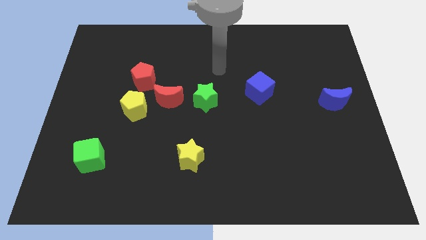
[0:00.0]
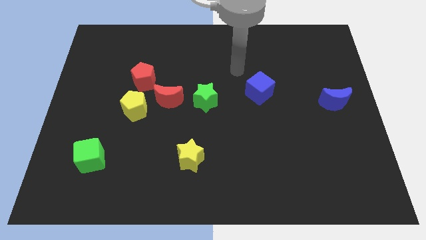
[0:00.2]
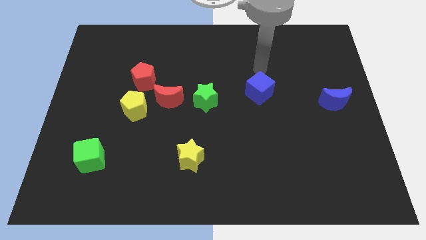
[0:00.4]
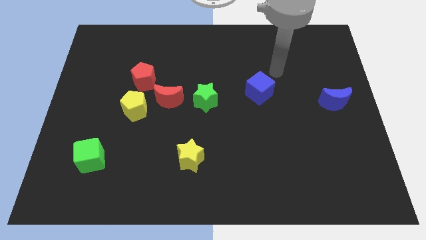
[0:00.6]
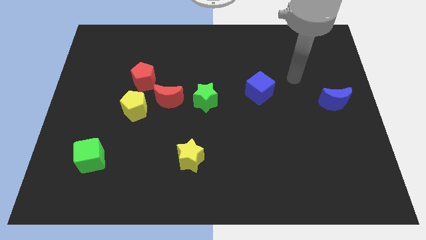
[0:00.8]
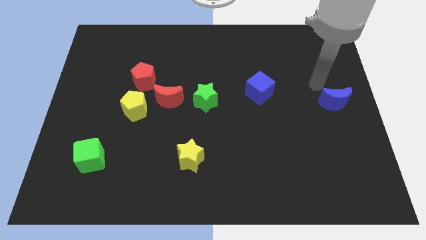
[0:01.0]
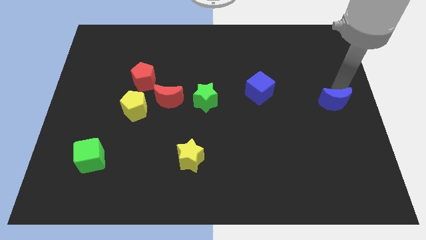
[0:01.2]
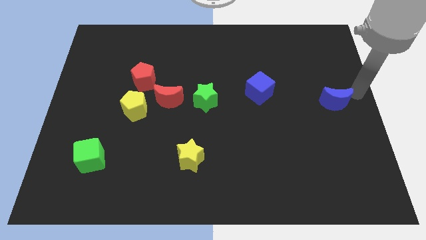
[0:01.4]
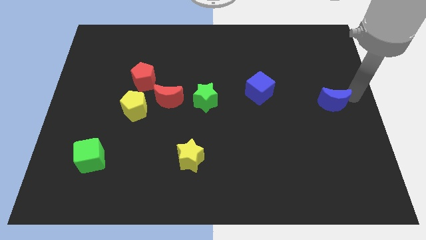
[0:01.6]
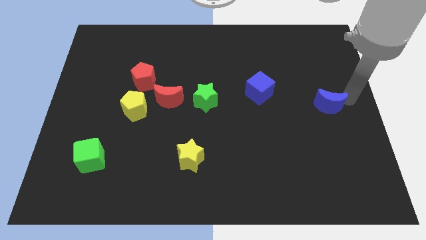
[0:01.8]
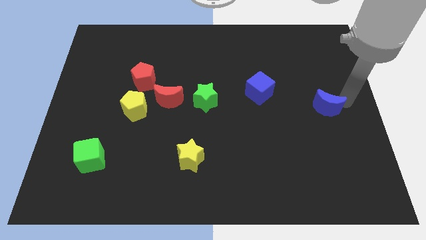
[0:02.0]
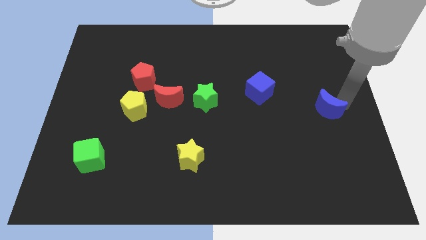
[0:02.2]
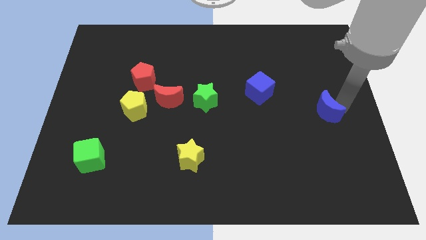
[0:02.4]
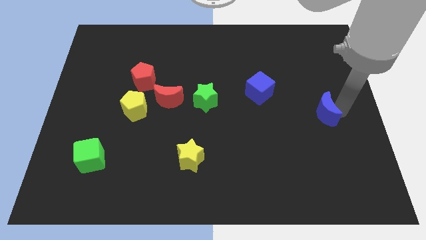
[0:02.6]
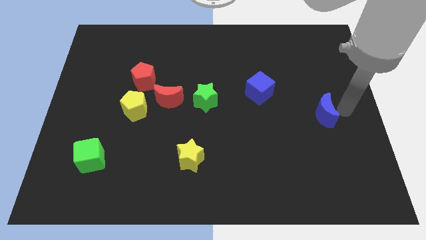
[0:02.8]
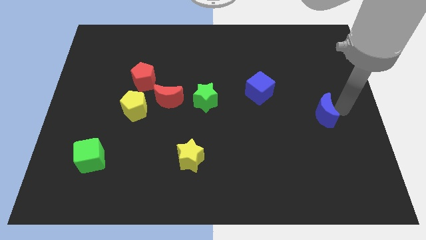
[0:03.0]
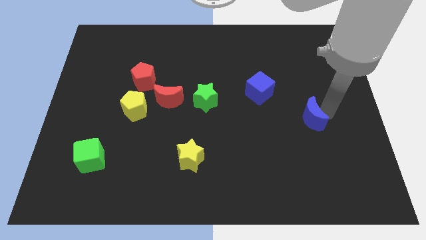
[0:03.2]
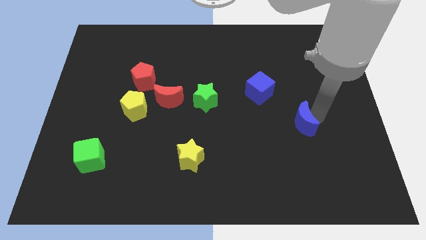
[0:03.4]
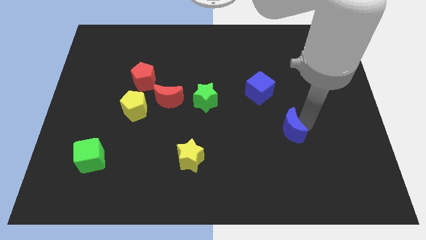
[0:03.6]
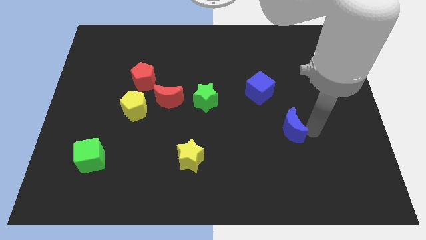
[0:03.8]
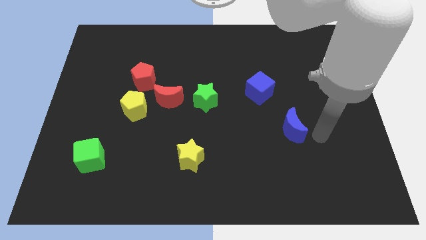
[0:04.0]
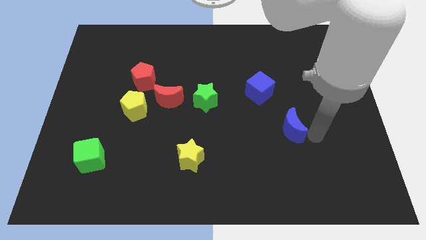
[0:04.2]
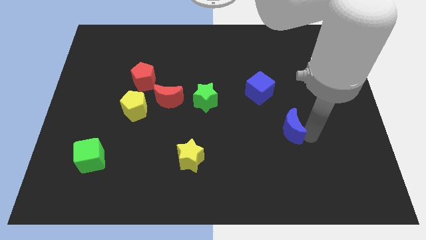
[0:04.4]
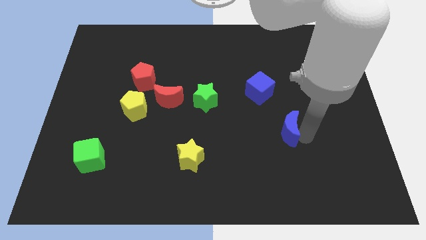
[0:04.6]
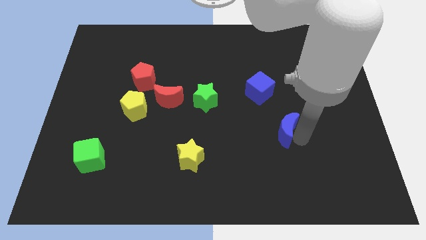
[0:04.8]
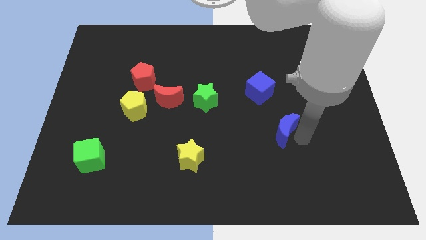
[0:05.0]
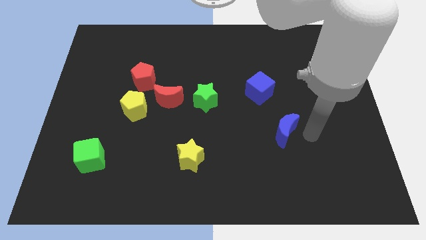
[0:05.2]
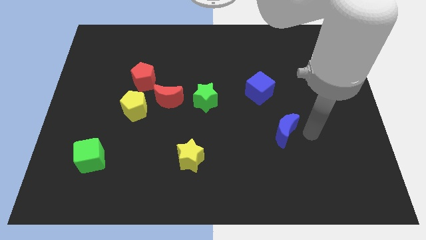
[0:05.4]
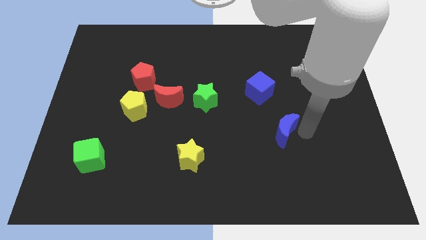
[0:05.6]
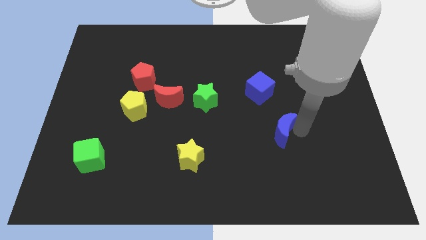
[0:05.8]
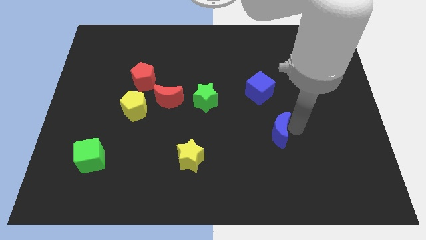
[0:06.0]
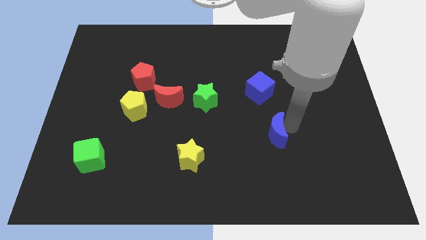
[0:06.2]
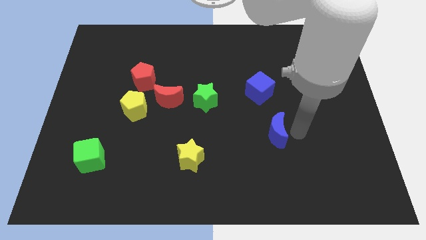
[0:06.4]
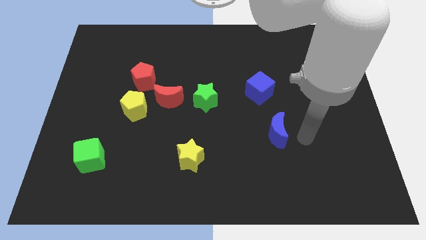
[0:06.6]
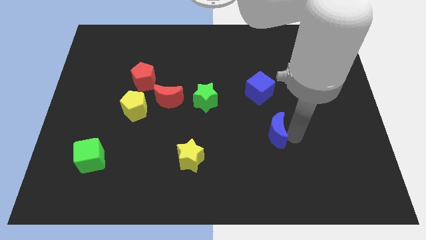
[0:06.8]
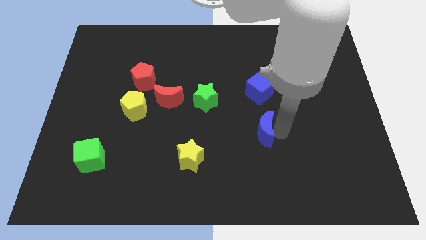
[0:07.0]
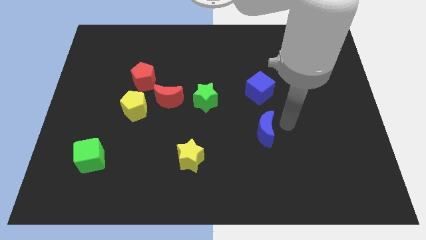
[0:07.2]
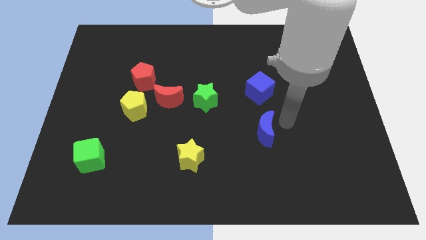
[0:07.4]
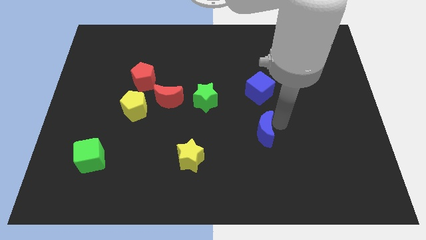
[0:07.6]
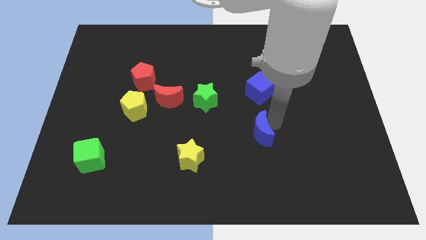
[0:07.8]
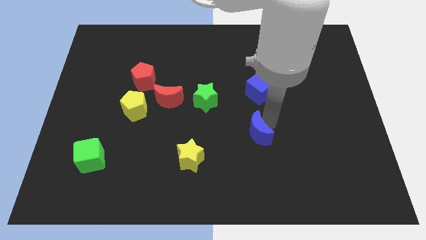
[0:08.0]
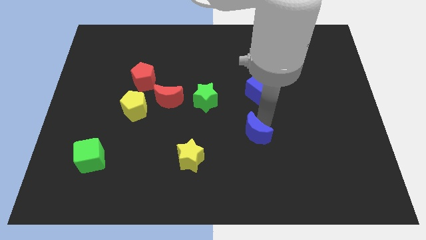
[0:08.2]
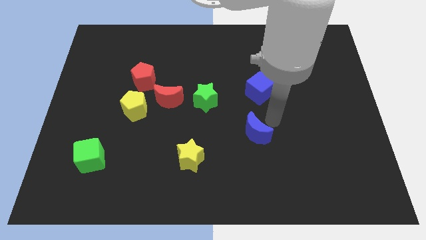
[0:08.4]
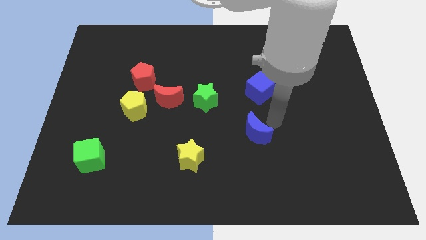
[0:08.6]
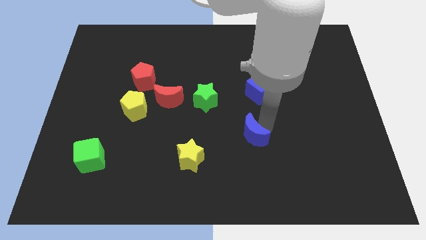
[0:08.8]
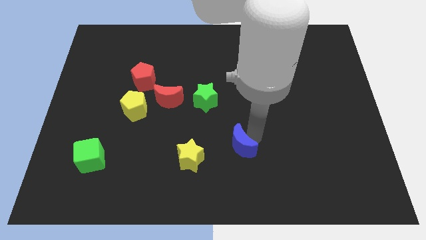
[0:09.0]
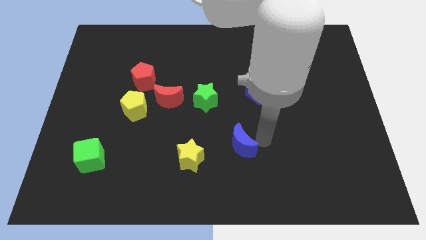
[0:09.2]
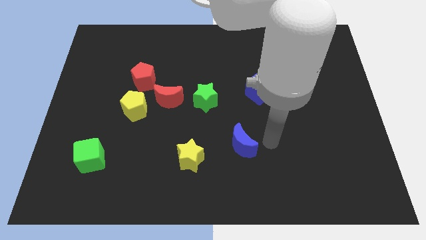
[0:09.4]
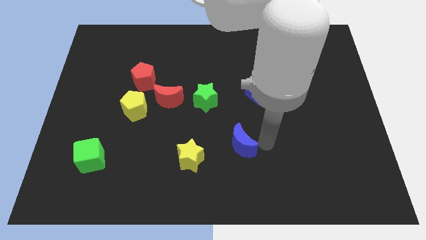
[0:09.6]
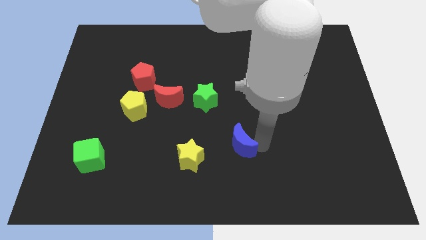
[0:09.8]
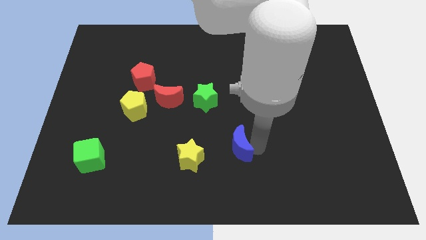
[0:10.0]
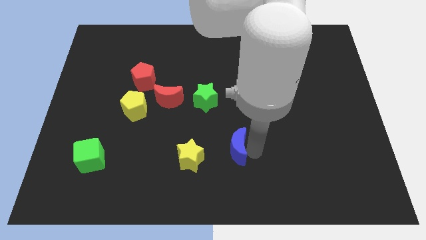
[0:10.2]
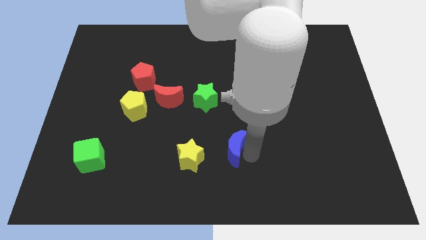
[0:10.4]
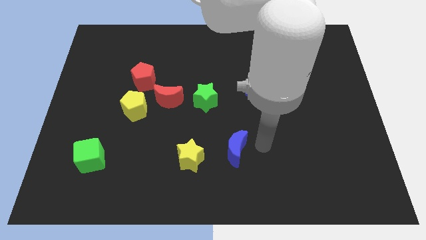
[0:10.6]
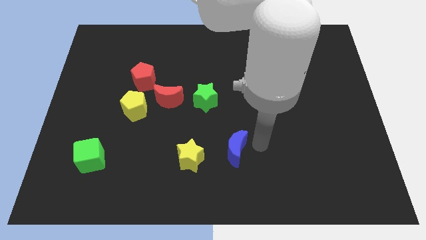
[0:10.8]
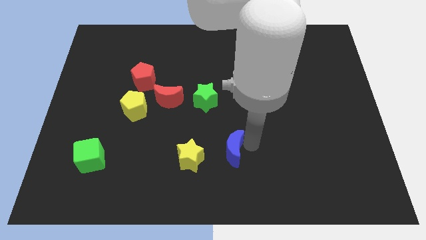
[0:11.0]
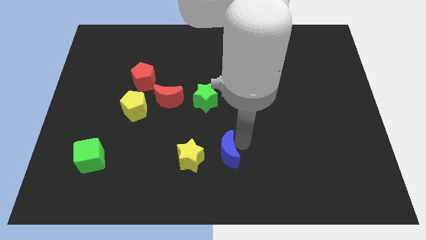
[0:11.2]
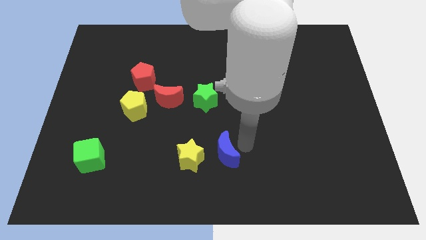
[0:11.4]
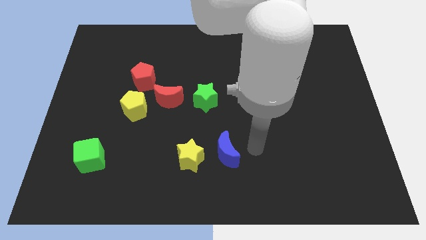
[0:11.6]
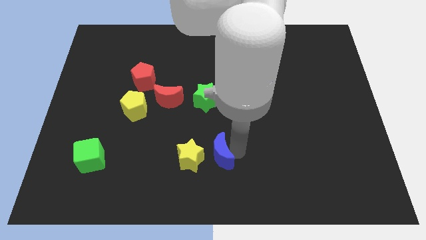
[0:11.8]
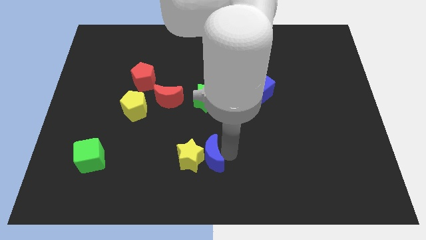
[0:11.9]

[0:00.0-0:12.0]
slide the blue moon close to the yellow star

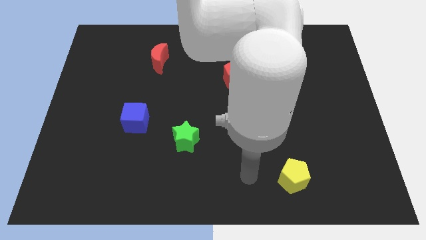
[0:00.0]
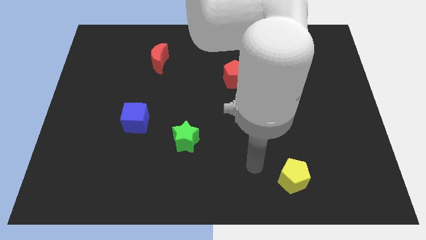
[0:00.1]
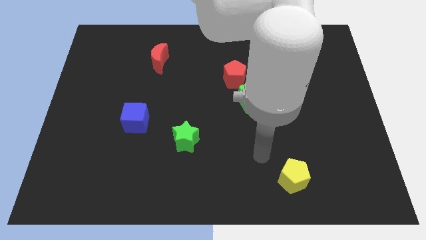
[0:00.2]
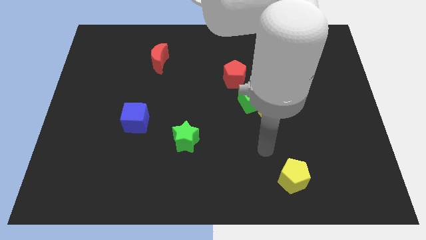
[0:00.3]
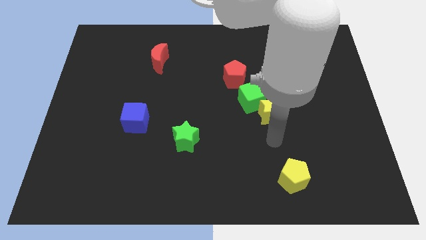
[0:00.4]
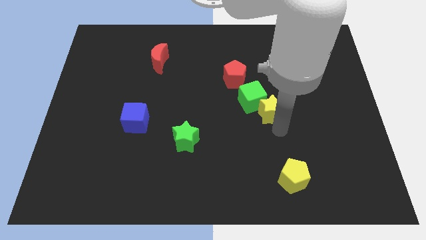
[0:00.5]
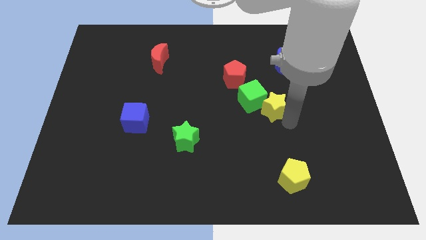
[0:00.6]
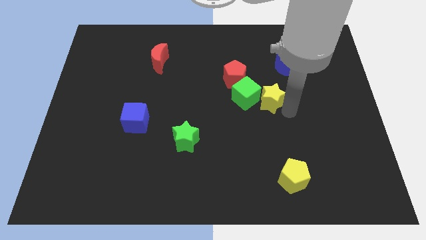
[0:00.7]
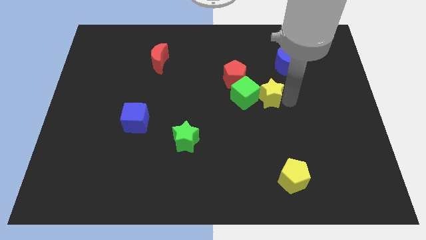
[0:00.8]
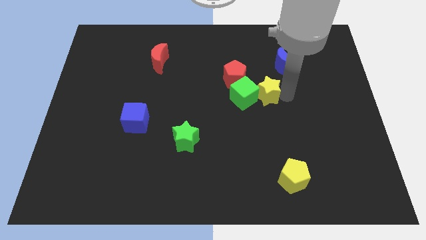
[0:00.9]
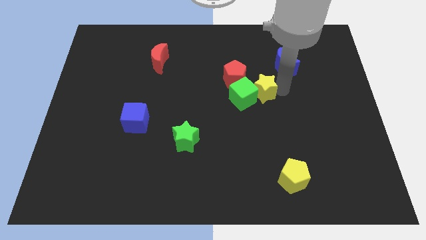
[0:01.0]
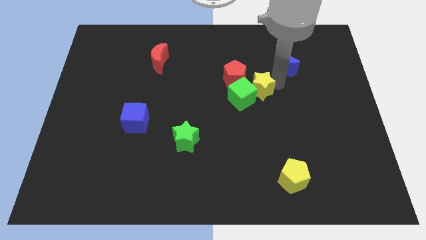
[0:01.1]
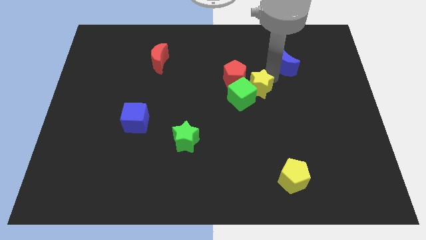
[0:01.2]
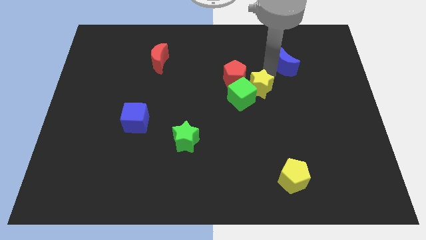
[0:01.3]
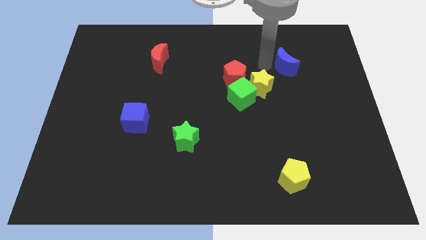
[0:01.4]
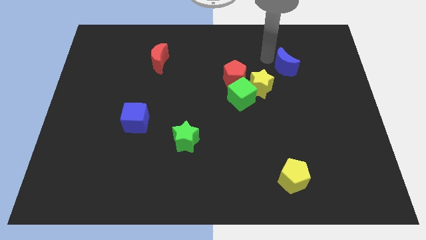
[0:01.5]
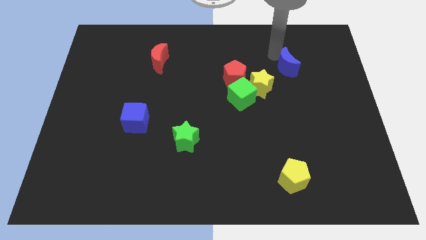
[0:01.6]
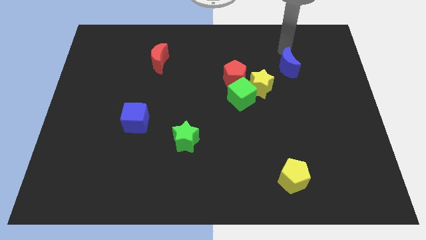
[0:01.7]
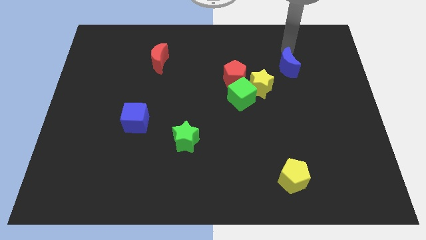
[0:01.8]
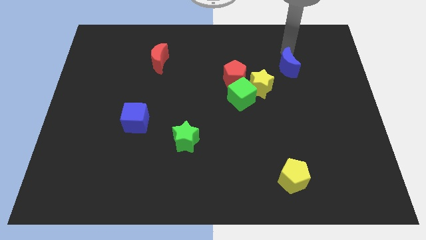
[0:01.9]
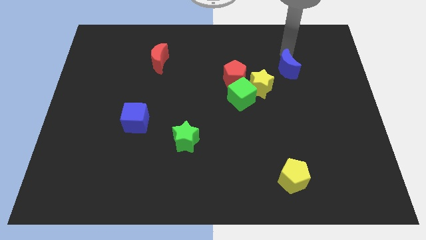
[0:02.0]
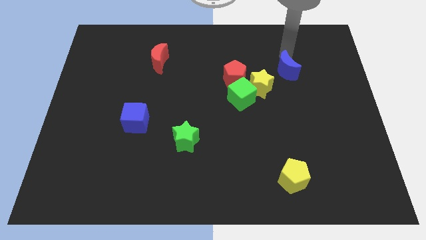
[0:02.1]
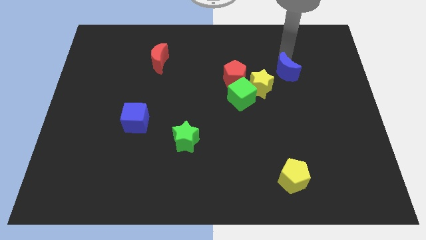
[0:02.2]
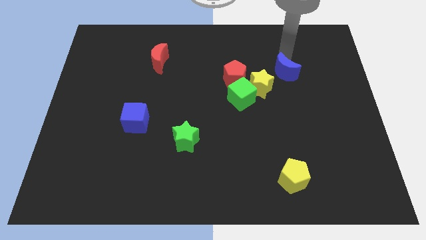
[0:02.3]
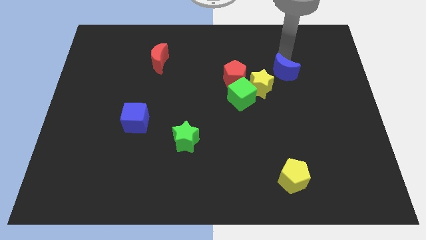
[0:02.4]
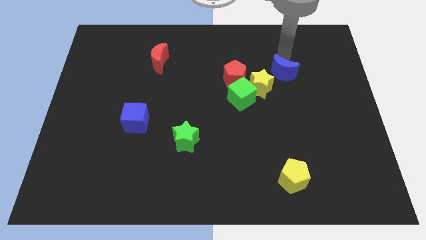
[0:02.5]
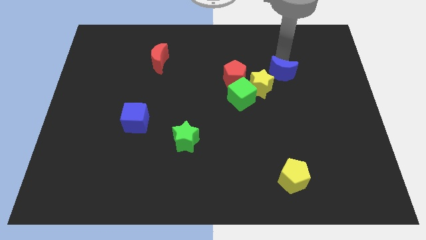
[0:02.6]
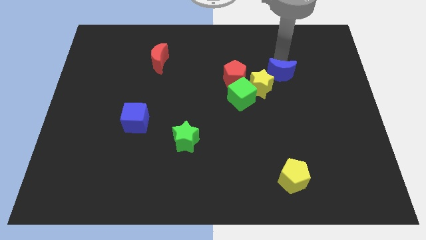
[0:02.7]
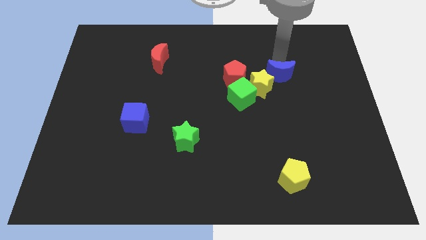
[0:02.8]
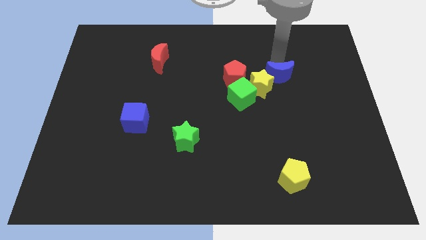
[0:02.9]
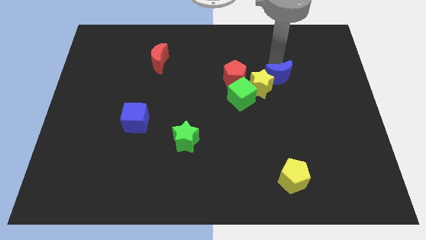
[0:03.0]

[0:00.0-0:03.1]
put the blue moon towards the yellow star
